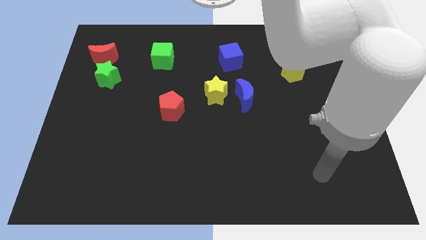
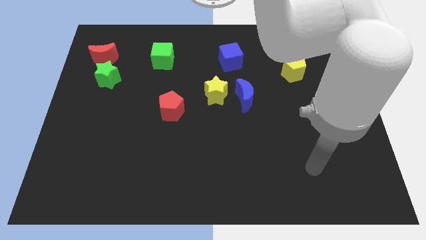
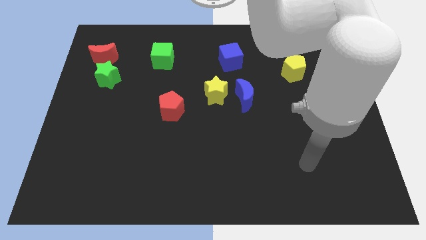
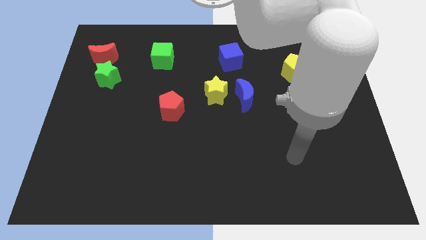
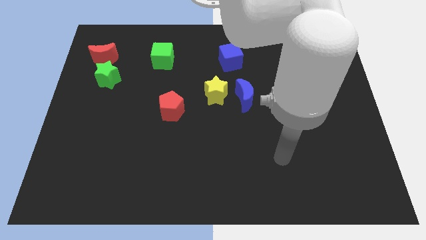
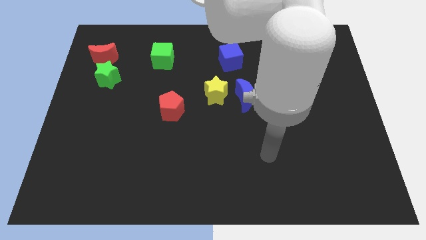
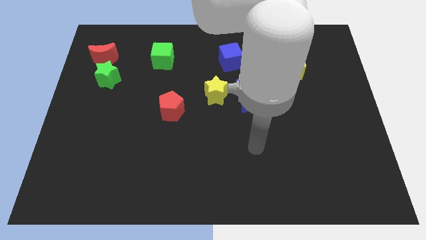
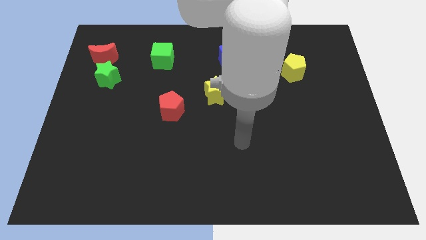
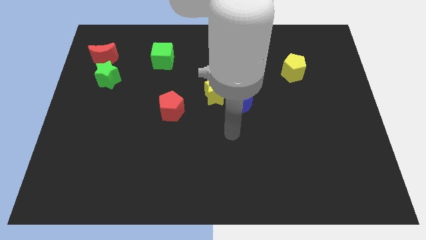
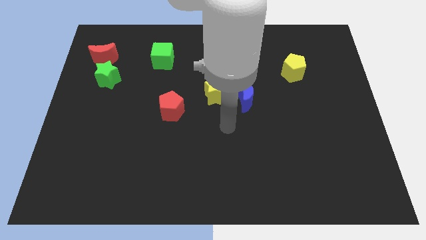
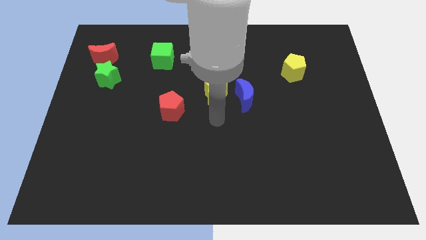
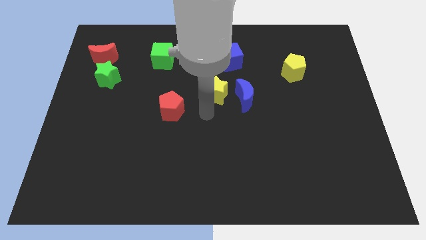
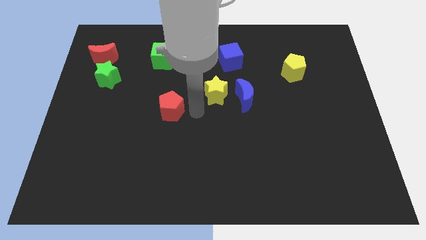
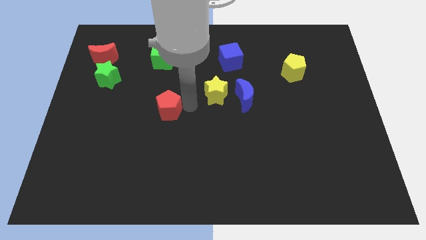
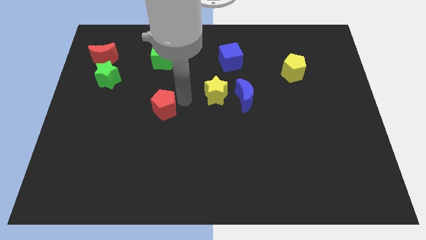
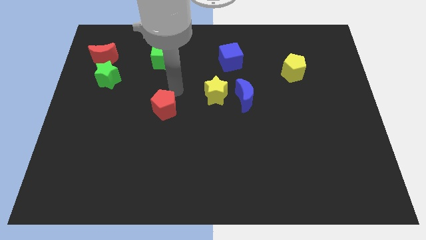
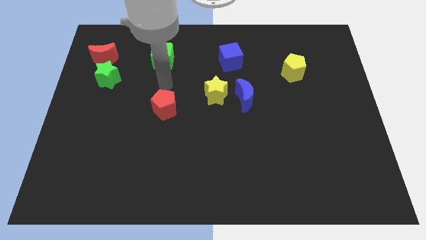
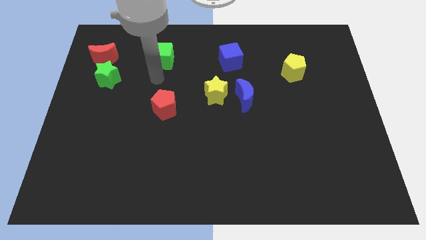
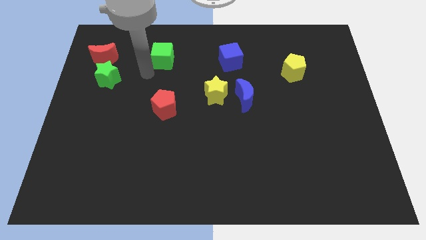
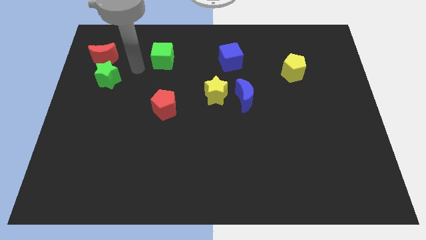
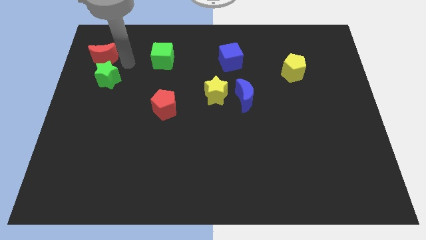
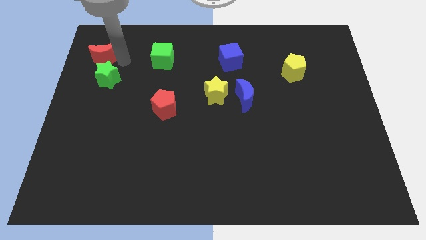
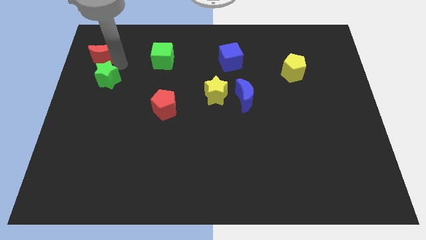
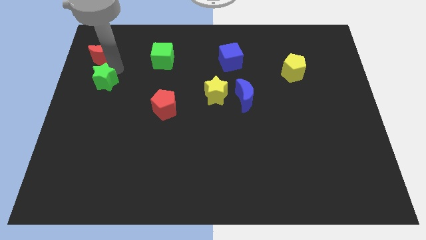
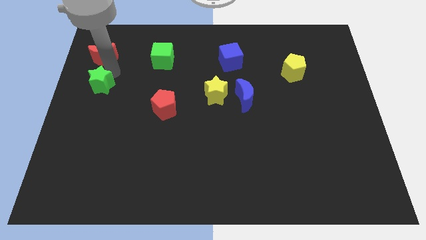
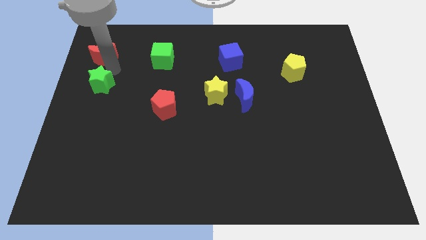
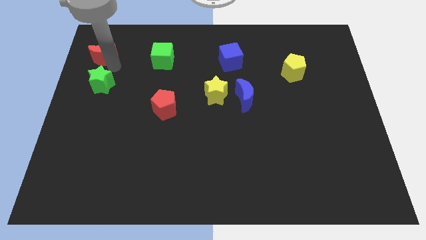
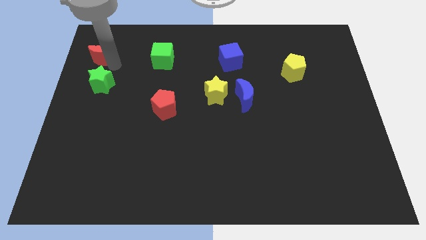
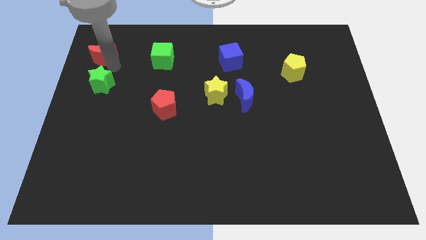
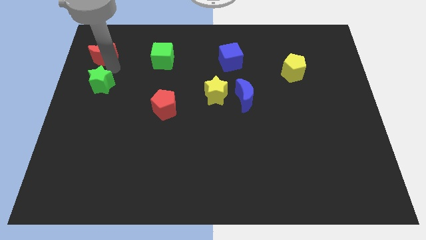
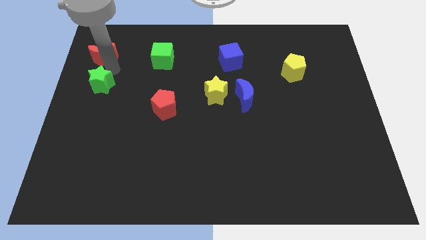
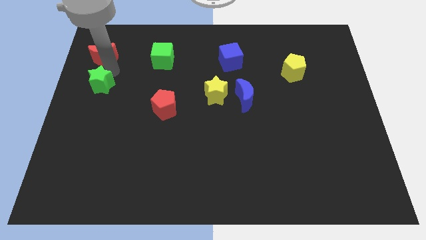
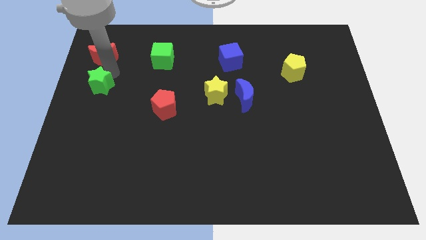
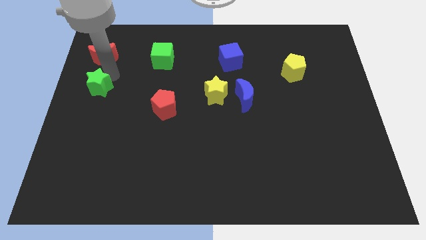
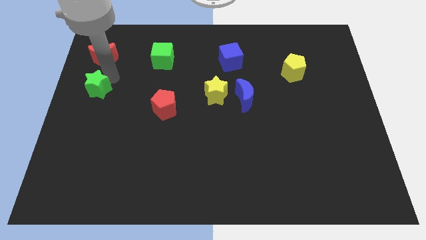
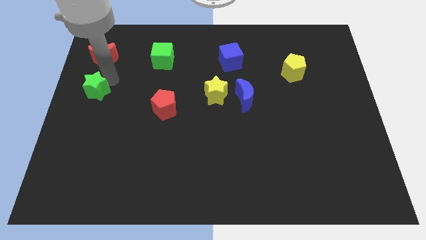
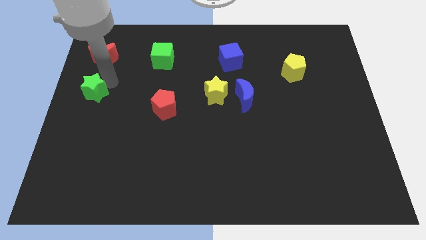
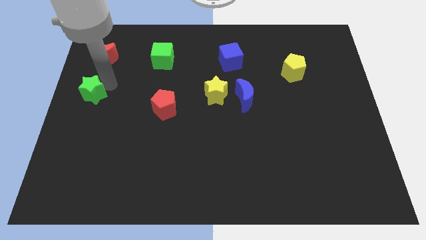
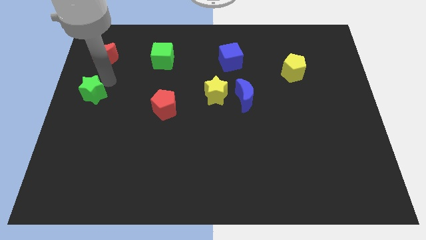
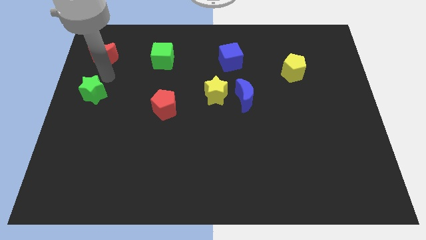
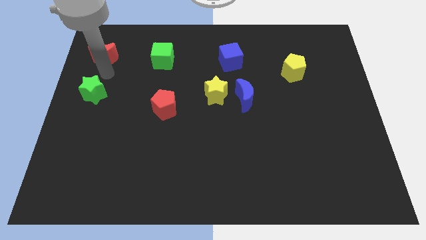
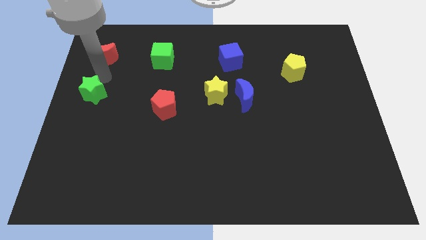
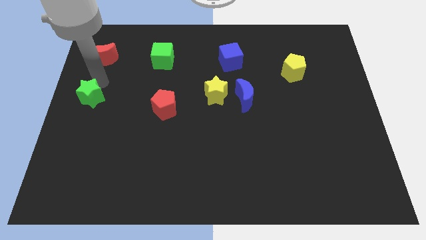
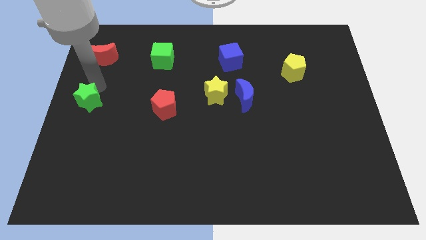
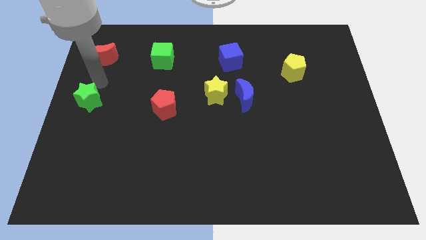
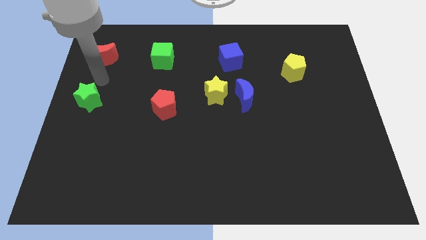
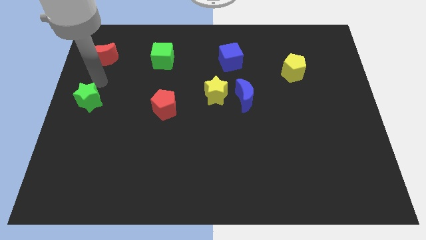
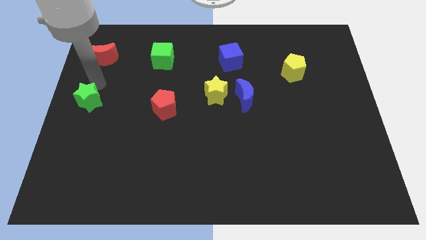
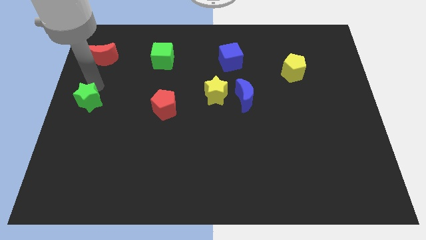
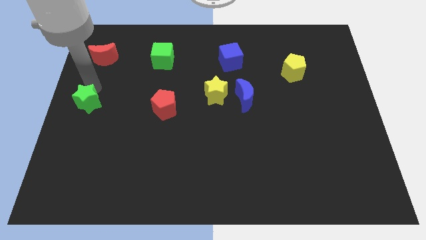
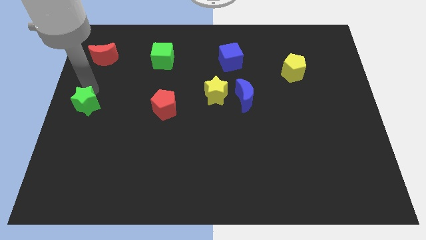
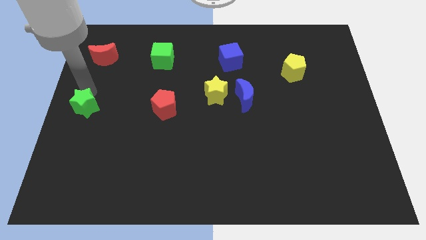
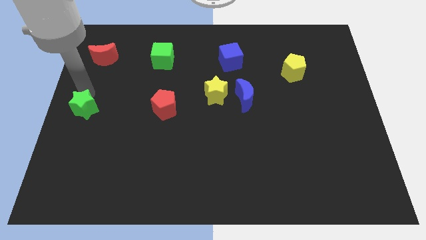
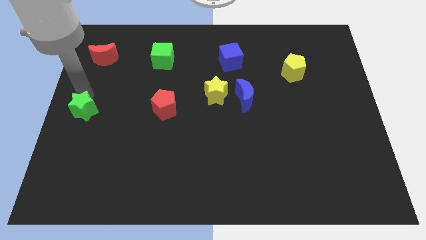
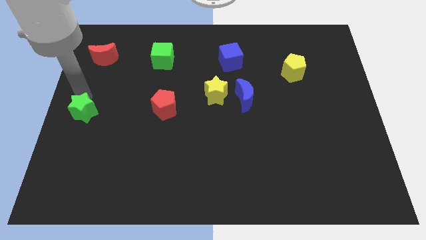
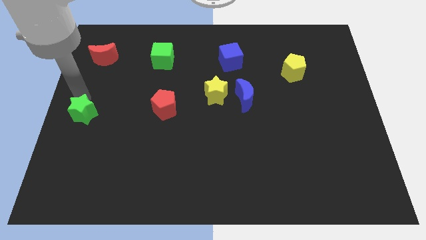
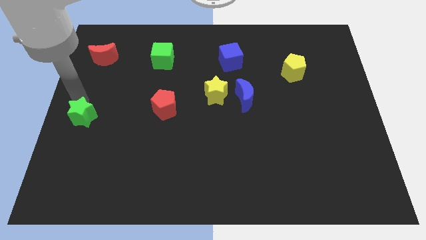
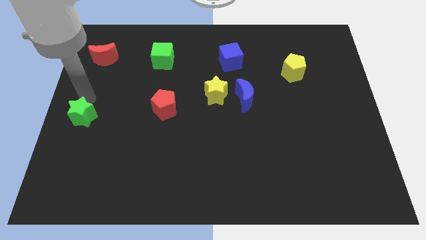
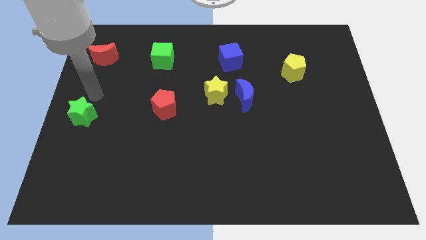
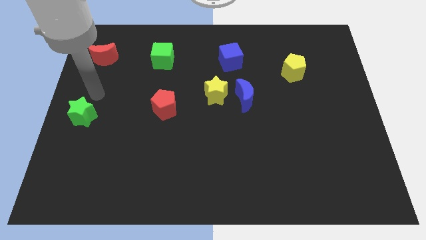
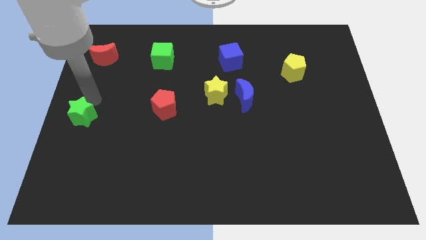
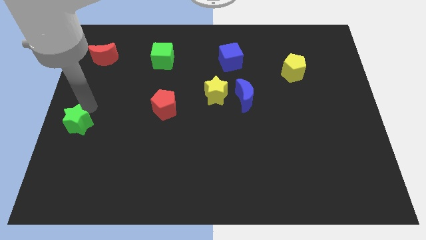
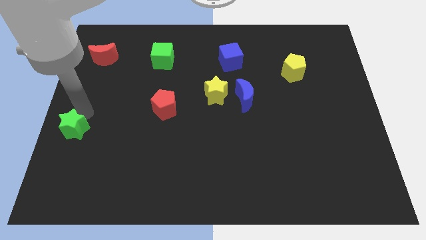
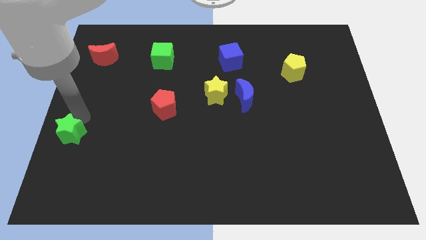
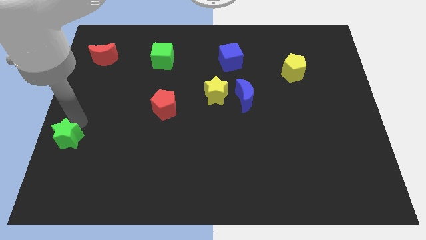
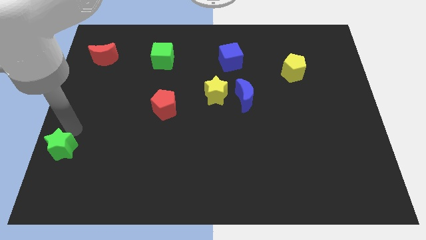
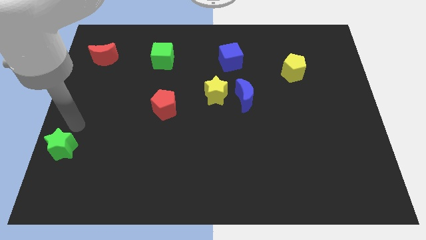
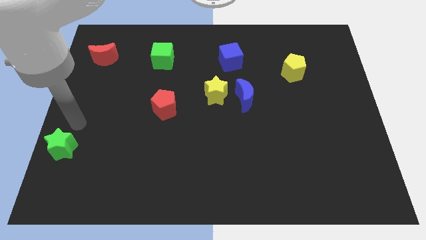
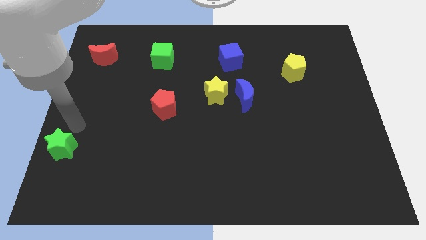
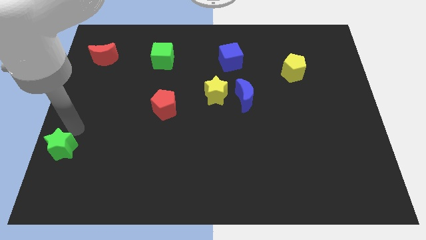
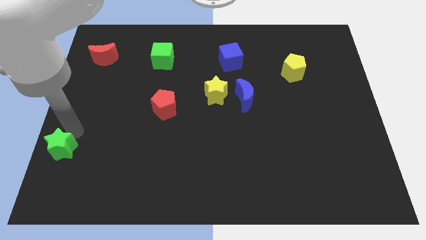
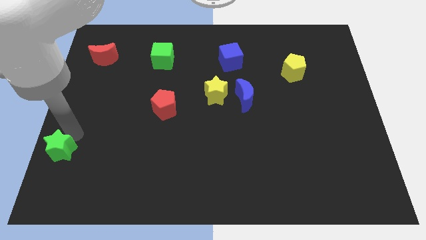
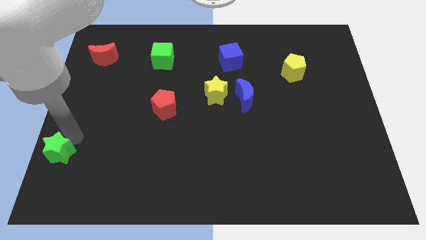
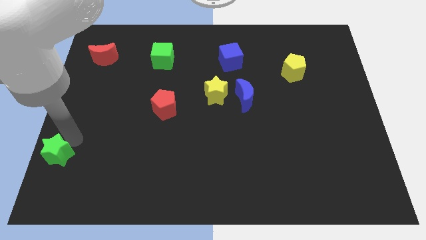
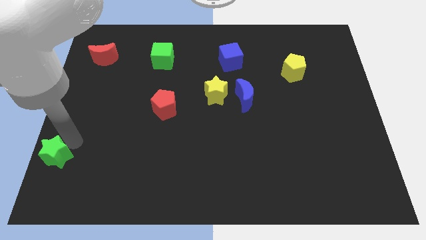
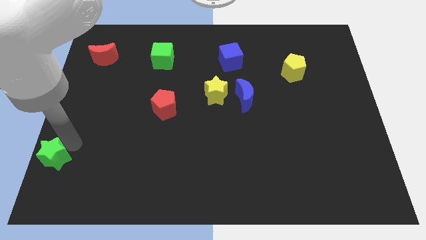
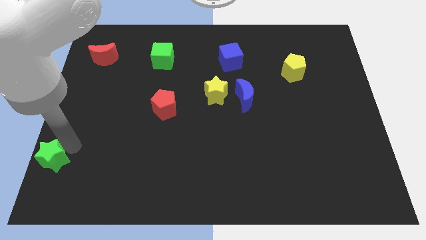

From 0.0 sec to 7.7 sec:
move the green star to the bottom left of the board
